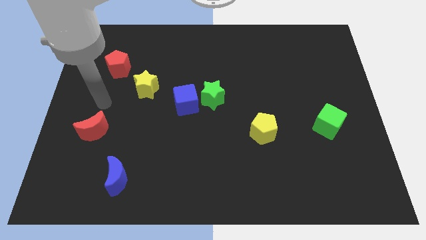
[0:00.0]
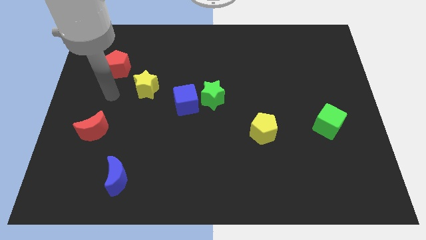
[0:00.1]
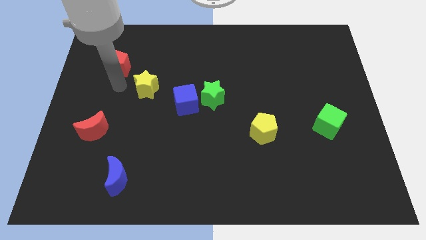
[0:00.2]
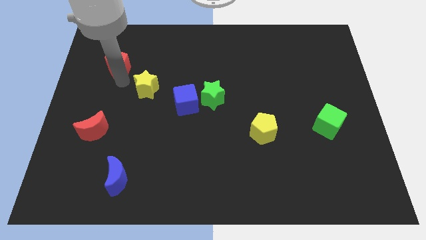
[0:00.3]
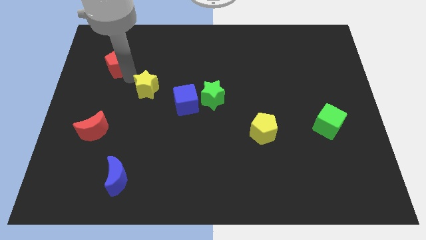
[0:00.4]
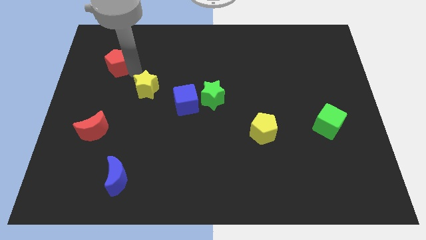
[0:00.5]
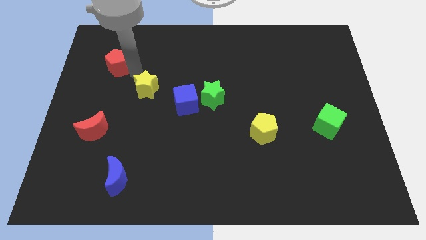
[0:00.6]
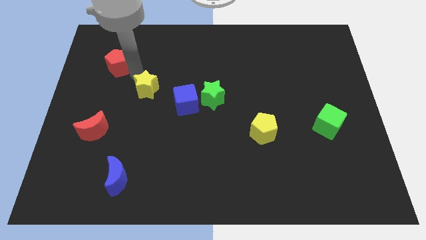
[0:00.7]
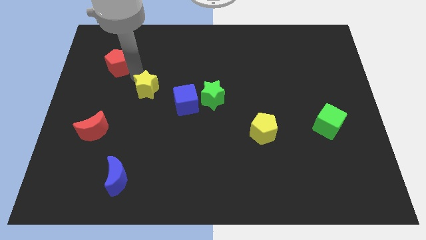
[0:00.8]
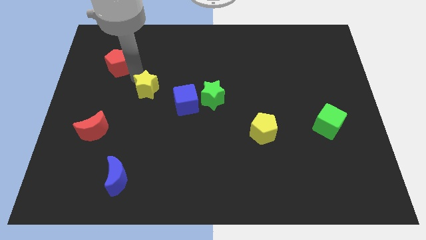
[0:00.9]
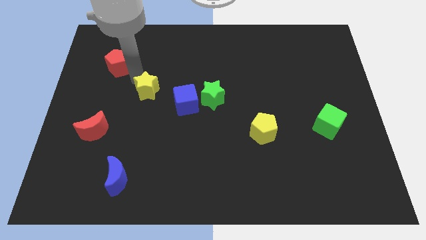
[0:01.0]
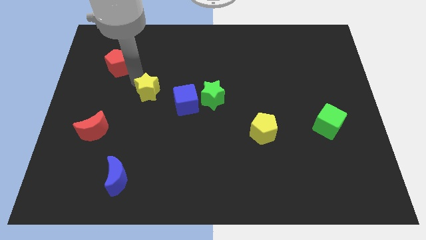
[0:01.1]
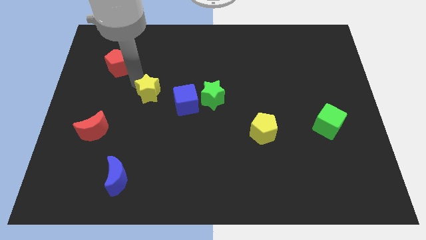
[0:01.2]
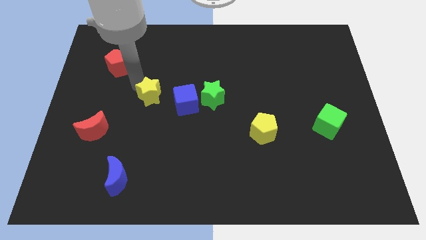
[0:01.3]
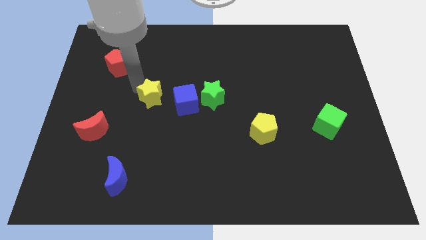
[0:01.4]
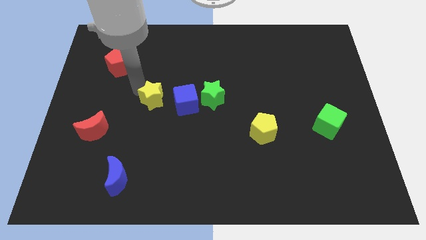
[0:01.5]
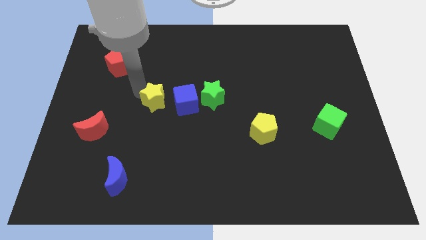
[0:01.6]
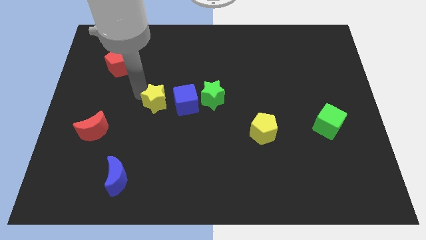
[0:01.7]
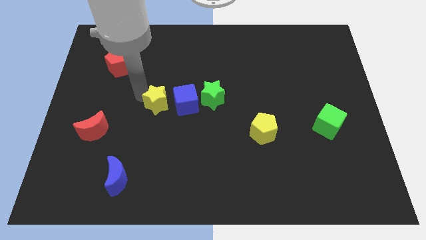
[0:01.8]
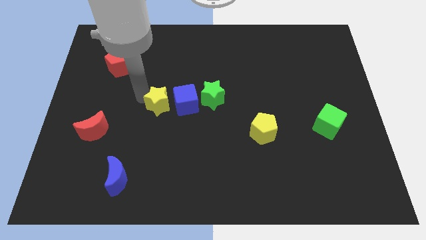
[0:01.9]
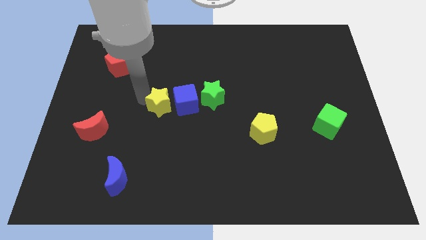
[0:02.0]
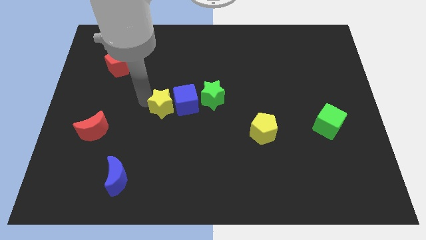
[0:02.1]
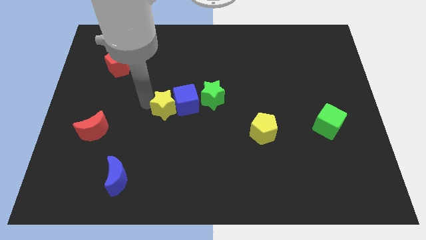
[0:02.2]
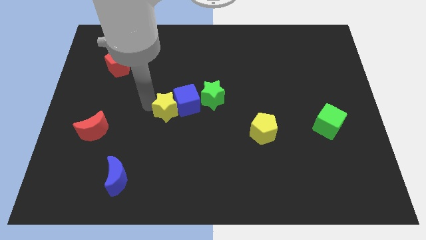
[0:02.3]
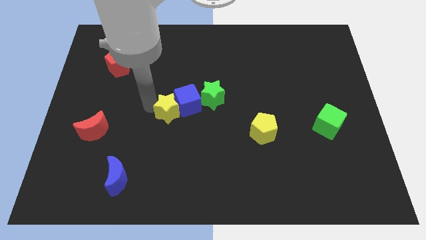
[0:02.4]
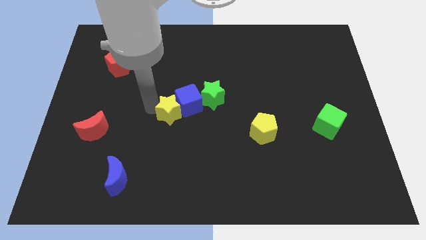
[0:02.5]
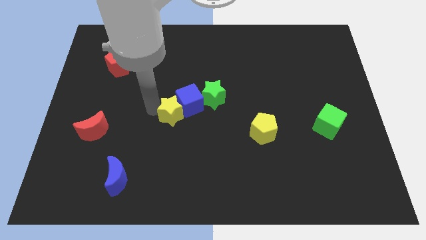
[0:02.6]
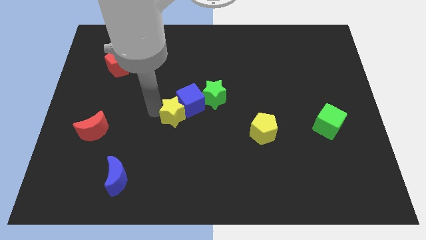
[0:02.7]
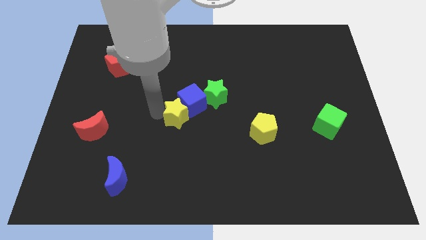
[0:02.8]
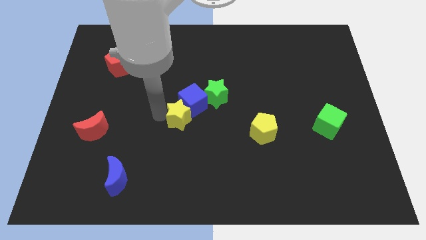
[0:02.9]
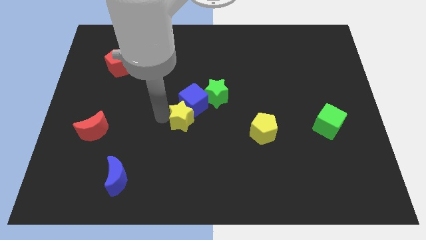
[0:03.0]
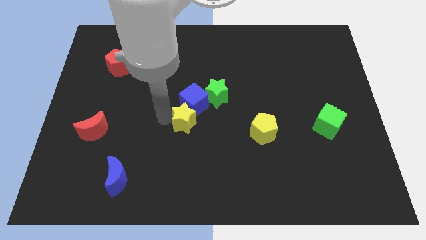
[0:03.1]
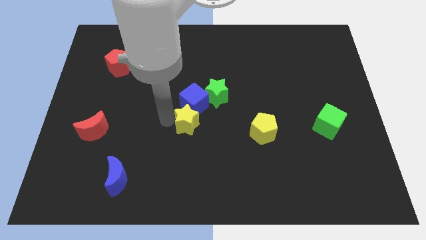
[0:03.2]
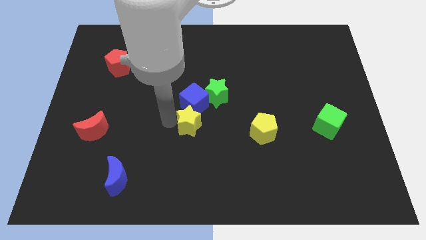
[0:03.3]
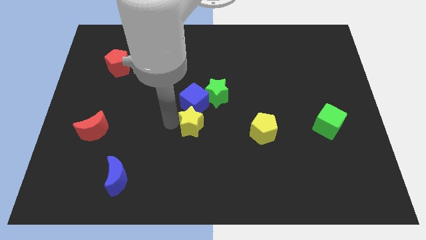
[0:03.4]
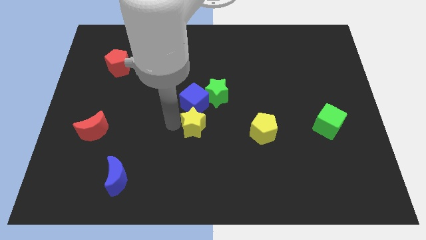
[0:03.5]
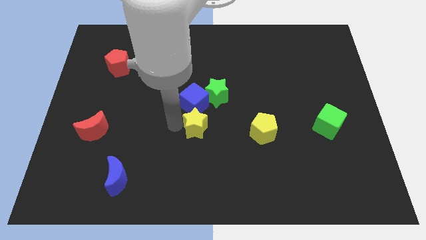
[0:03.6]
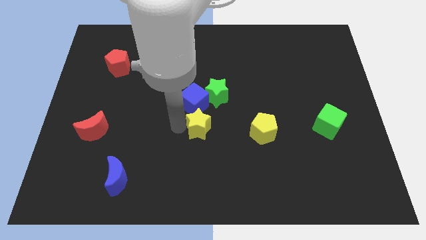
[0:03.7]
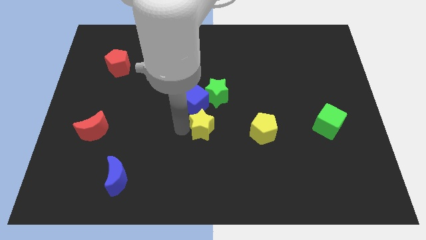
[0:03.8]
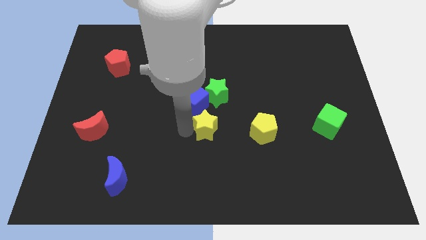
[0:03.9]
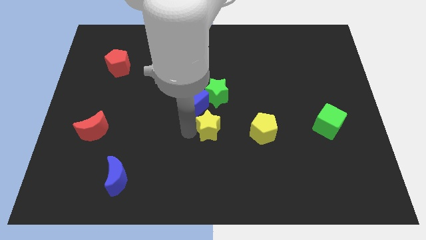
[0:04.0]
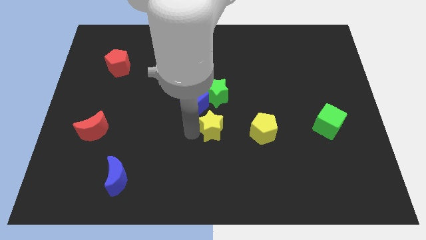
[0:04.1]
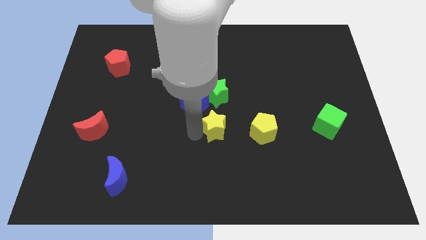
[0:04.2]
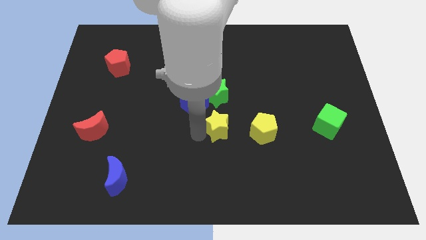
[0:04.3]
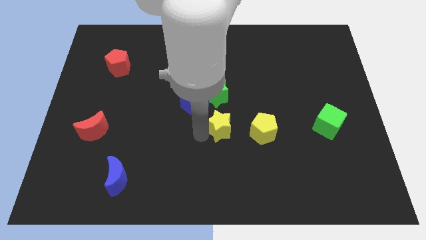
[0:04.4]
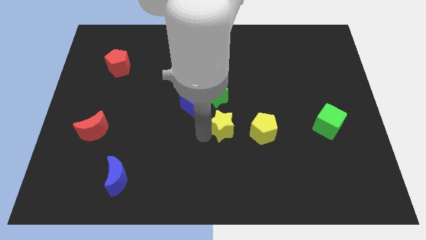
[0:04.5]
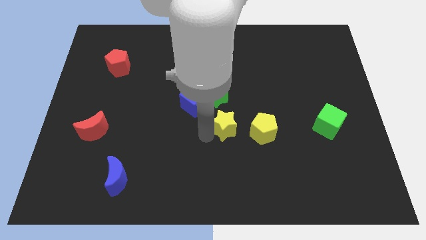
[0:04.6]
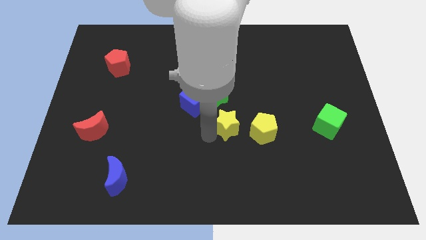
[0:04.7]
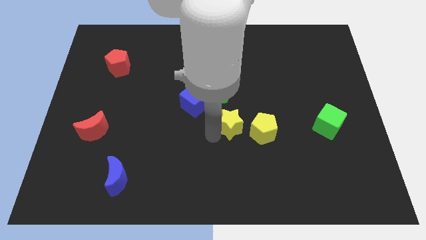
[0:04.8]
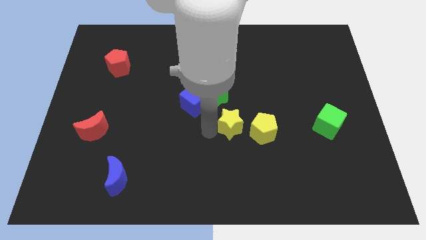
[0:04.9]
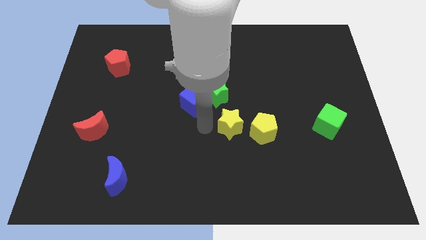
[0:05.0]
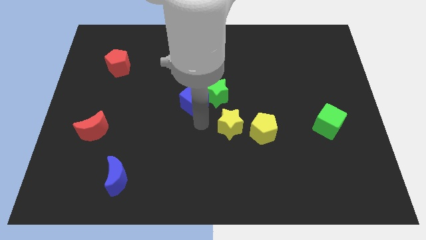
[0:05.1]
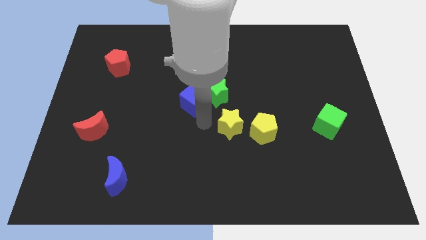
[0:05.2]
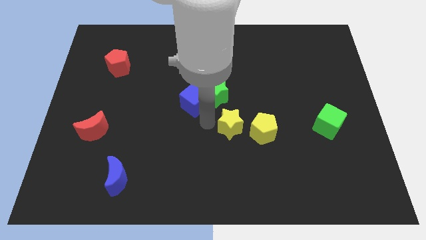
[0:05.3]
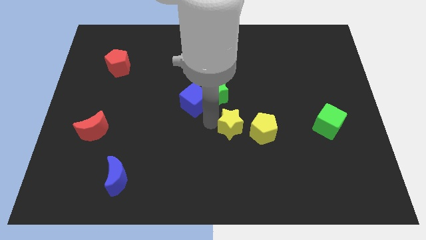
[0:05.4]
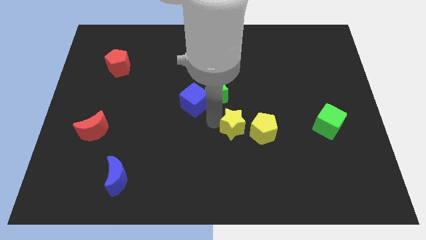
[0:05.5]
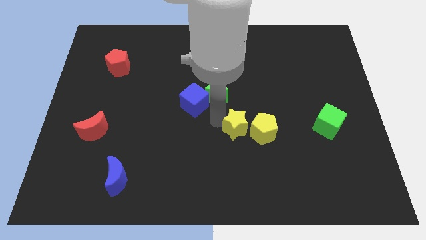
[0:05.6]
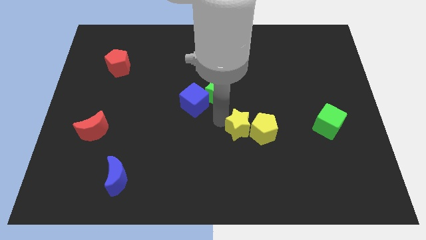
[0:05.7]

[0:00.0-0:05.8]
push the yellow star next to the yellow pentagon

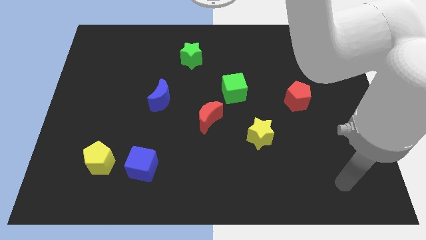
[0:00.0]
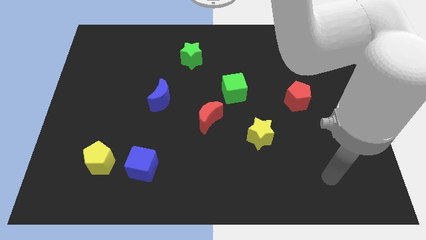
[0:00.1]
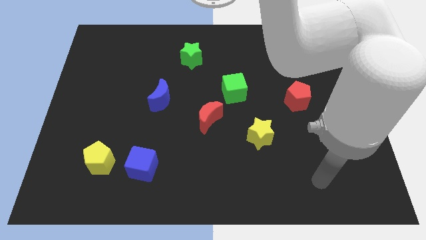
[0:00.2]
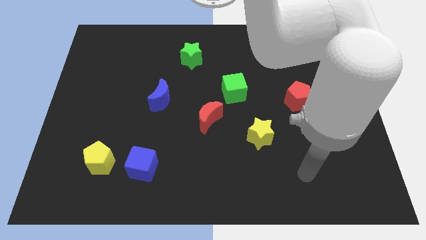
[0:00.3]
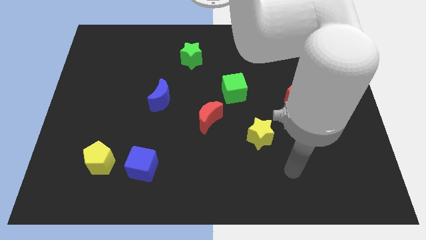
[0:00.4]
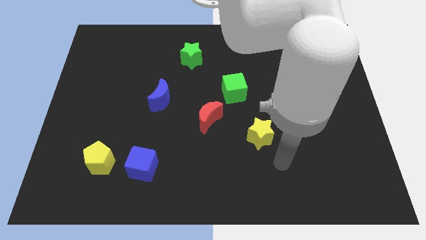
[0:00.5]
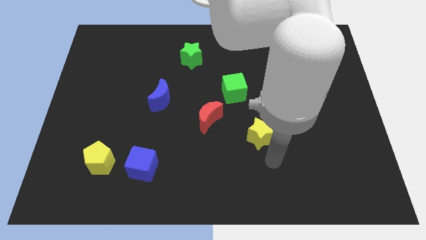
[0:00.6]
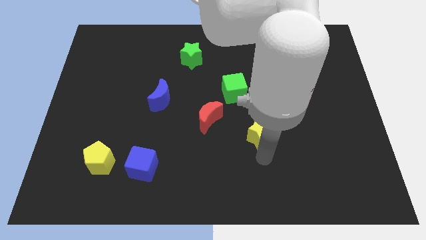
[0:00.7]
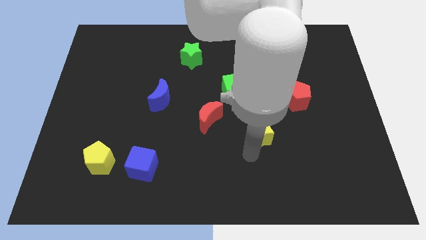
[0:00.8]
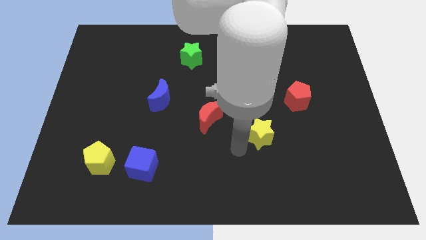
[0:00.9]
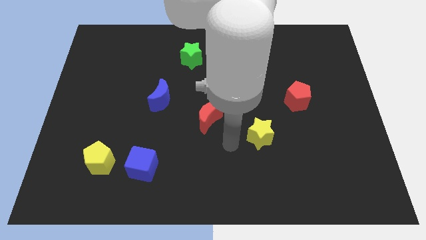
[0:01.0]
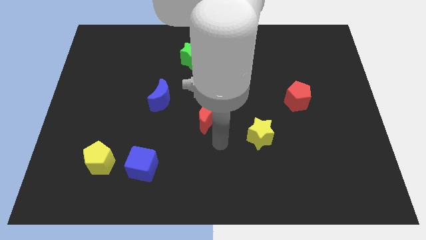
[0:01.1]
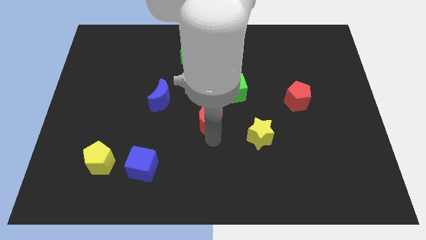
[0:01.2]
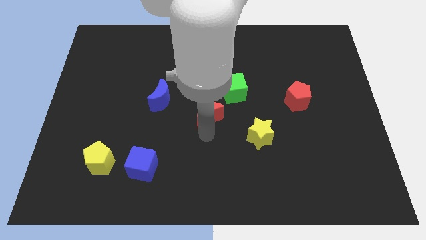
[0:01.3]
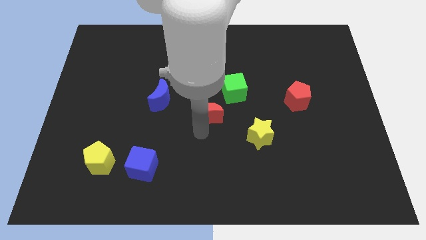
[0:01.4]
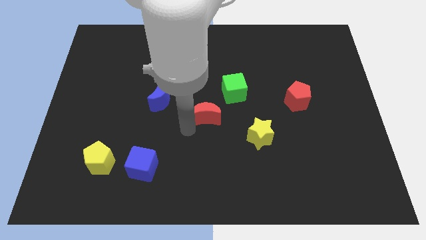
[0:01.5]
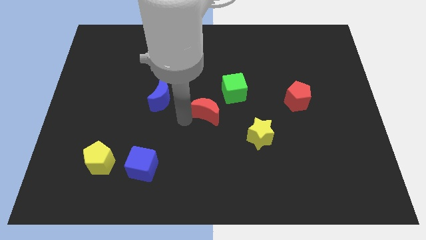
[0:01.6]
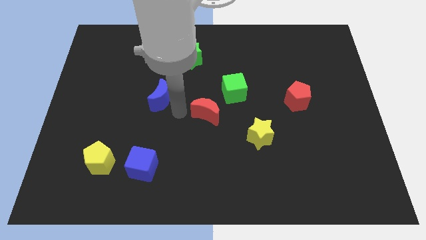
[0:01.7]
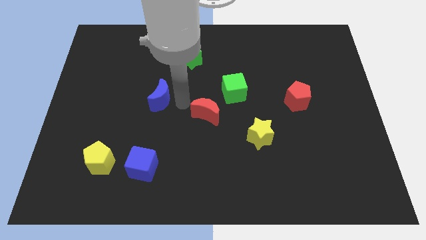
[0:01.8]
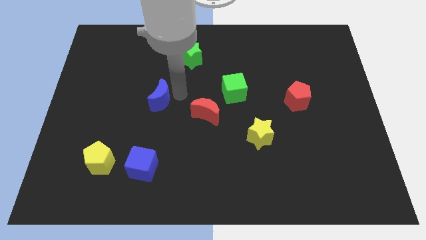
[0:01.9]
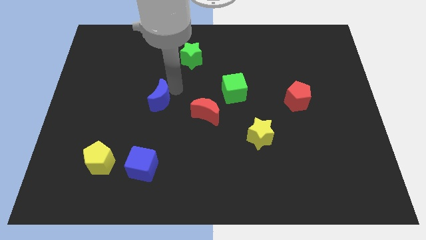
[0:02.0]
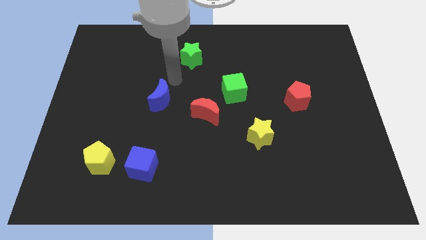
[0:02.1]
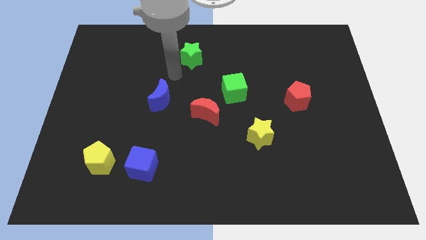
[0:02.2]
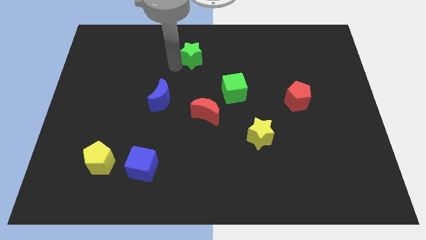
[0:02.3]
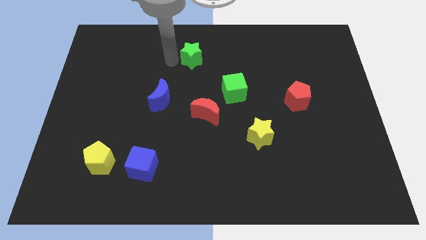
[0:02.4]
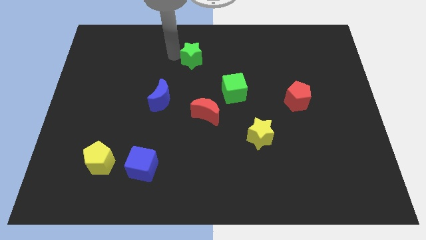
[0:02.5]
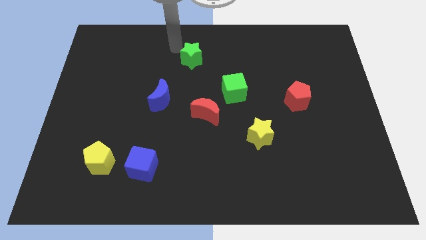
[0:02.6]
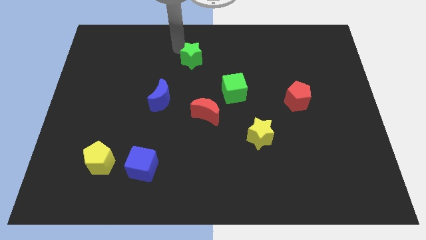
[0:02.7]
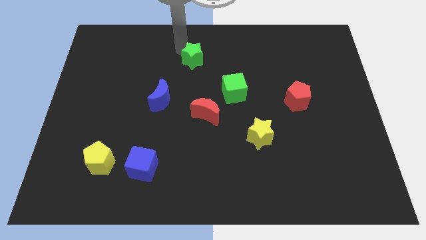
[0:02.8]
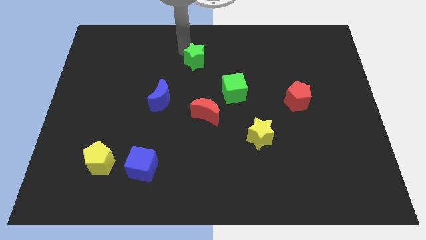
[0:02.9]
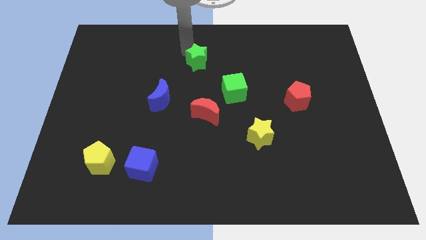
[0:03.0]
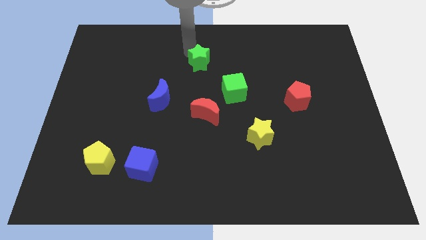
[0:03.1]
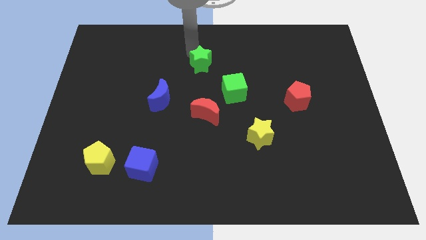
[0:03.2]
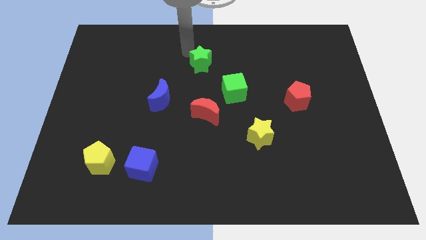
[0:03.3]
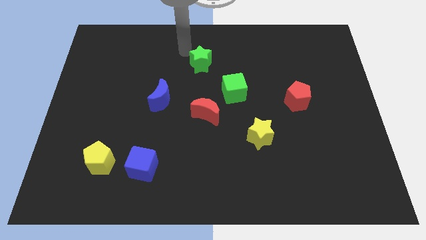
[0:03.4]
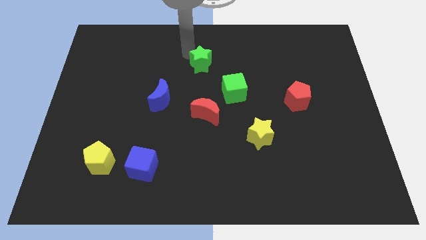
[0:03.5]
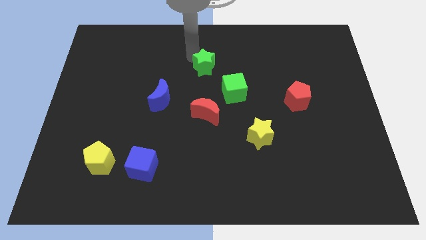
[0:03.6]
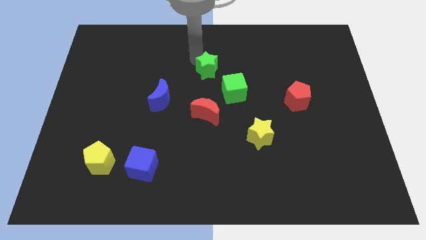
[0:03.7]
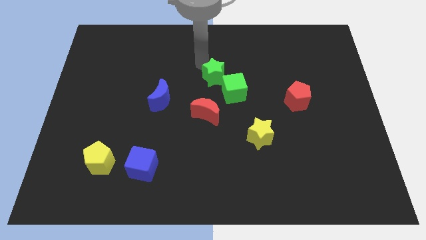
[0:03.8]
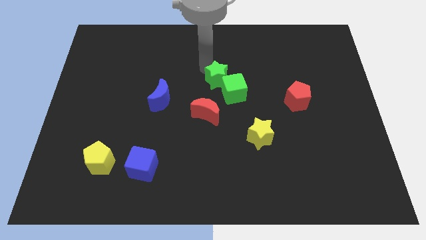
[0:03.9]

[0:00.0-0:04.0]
put the green star close to the green cube
